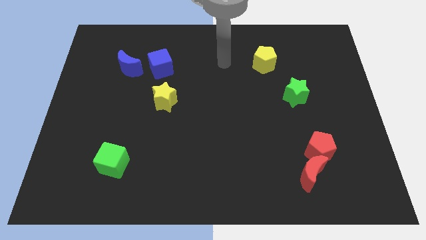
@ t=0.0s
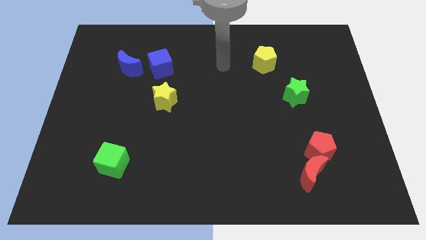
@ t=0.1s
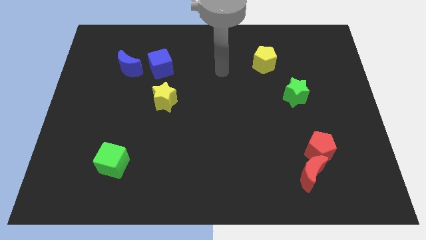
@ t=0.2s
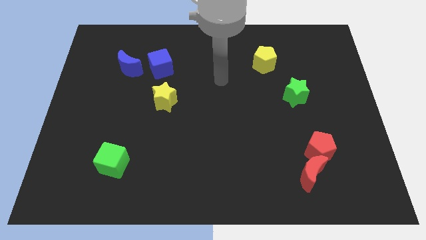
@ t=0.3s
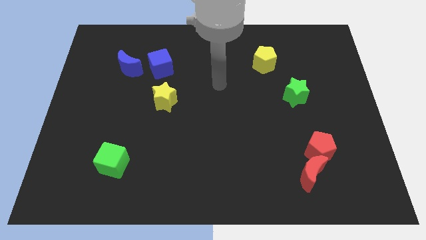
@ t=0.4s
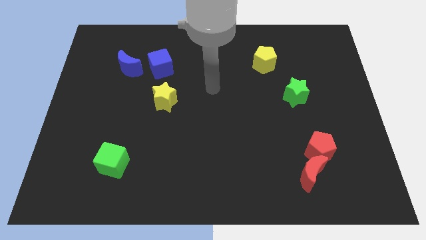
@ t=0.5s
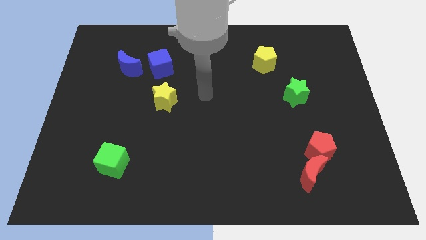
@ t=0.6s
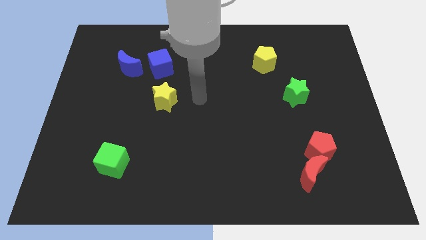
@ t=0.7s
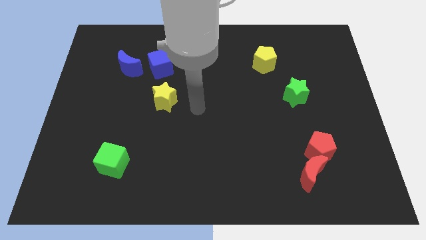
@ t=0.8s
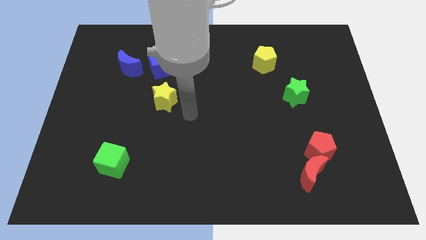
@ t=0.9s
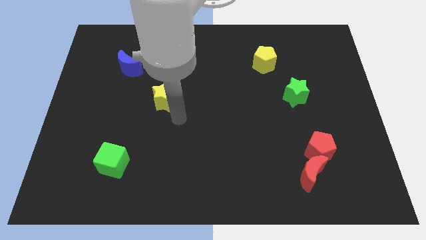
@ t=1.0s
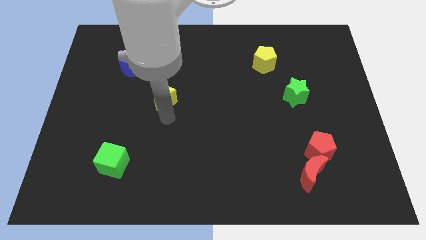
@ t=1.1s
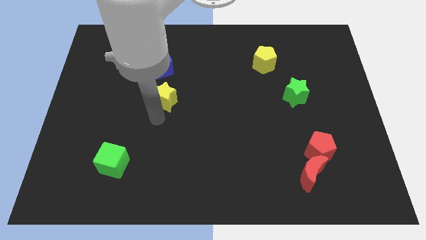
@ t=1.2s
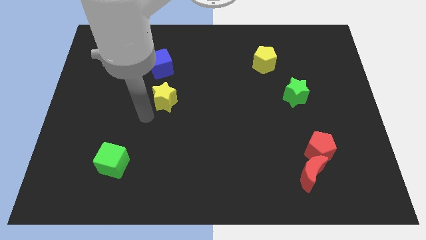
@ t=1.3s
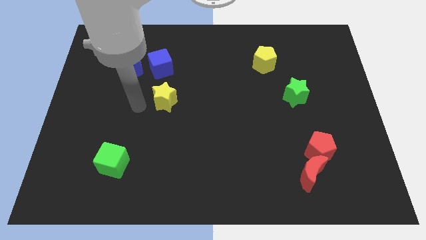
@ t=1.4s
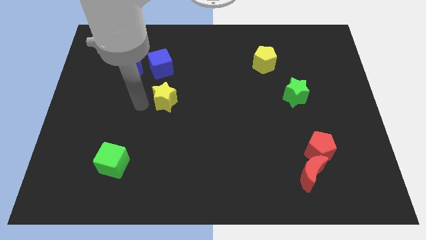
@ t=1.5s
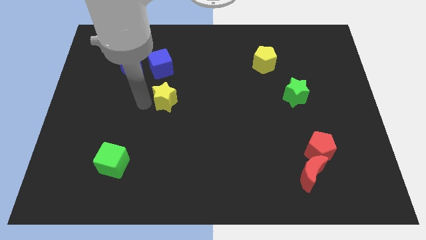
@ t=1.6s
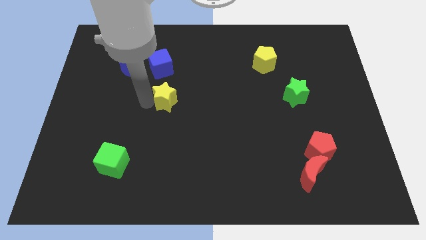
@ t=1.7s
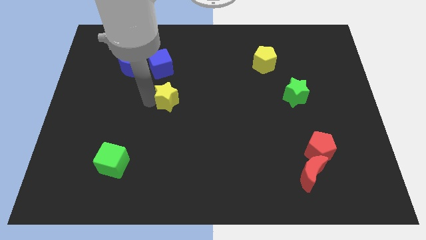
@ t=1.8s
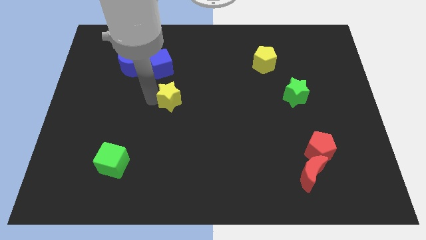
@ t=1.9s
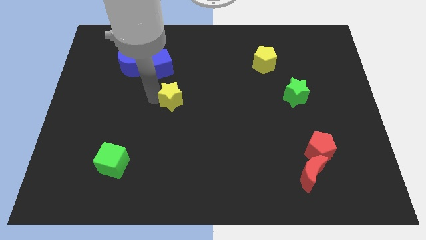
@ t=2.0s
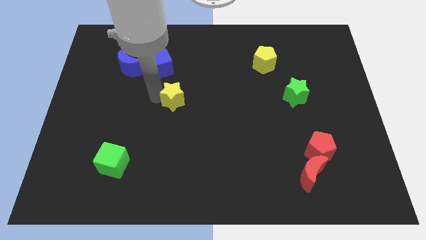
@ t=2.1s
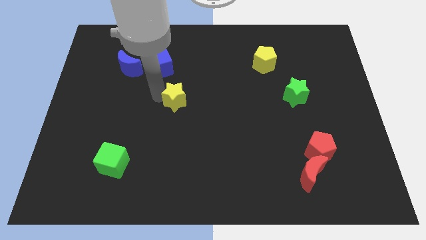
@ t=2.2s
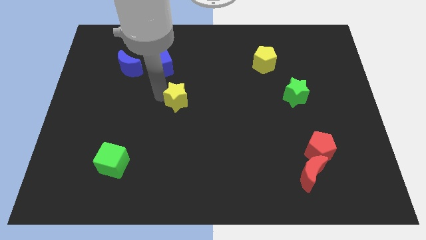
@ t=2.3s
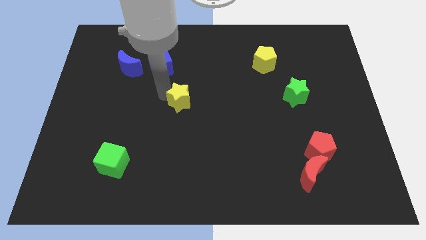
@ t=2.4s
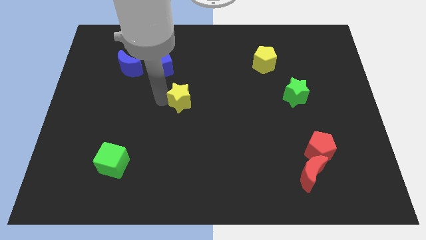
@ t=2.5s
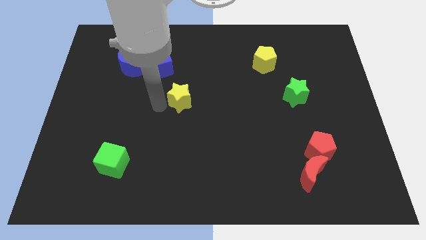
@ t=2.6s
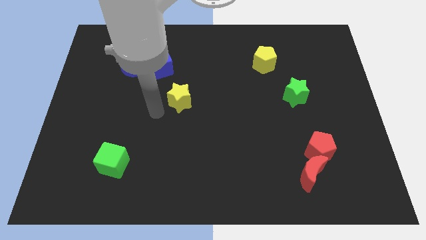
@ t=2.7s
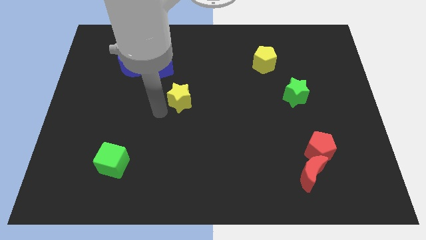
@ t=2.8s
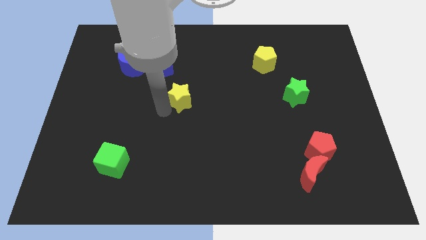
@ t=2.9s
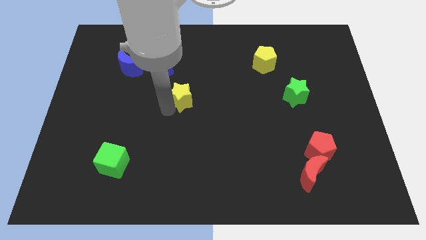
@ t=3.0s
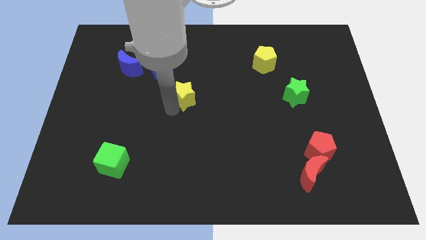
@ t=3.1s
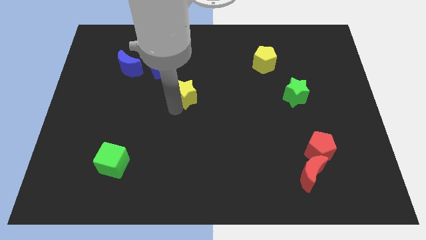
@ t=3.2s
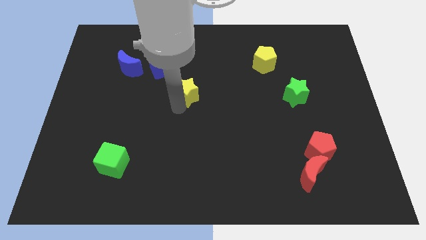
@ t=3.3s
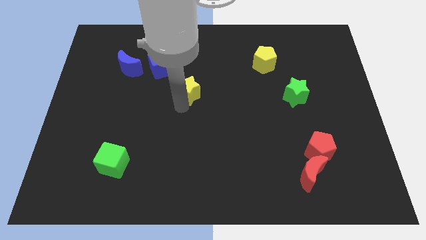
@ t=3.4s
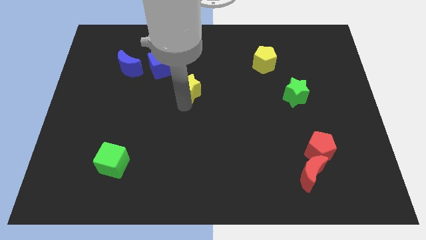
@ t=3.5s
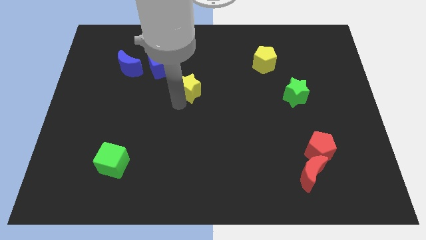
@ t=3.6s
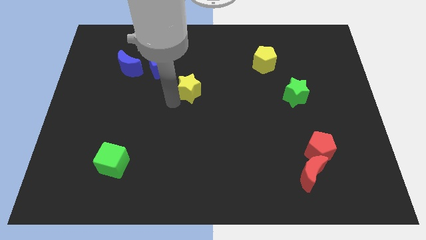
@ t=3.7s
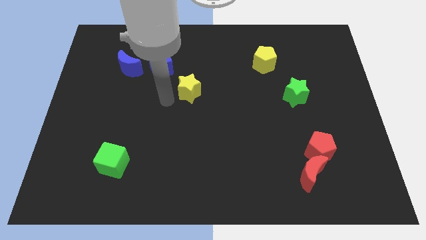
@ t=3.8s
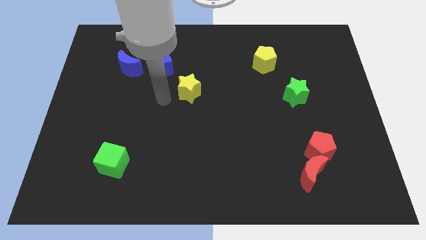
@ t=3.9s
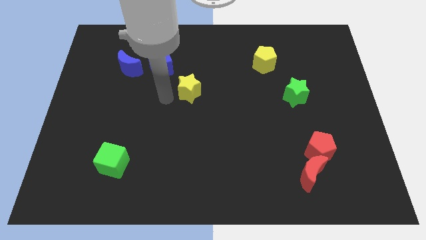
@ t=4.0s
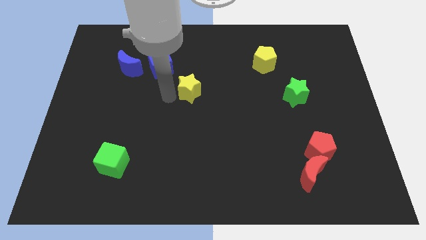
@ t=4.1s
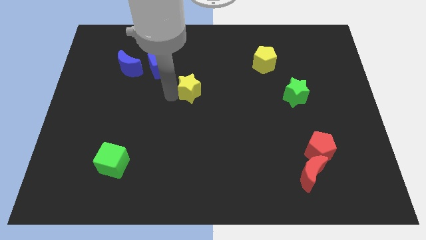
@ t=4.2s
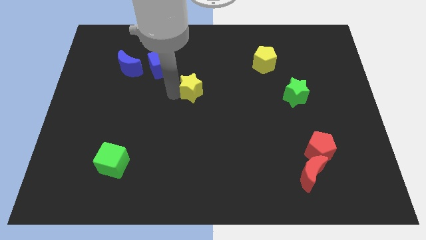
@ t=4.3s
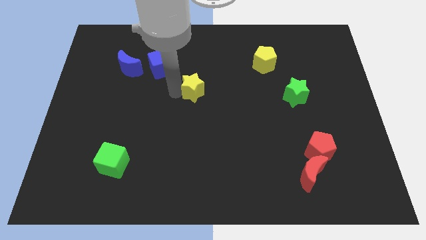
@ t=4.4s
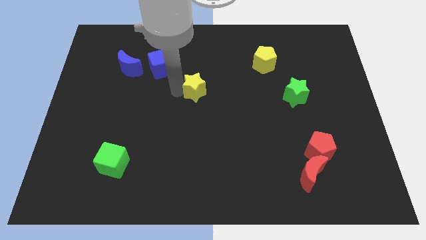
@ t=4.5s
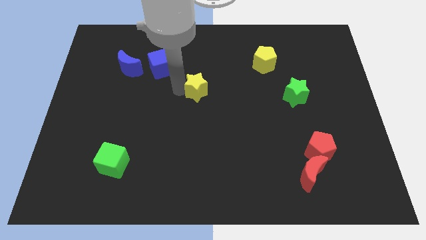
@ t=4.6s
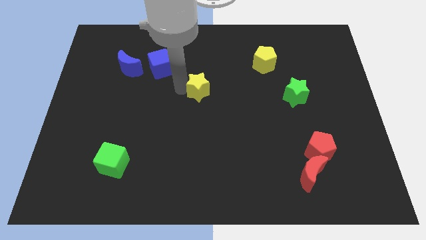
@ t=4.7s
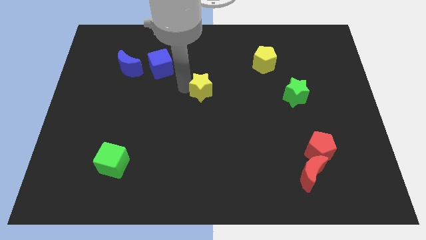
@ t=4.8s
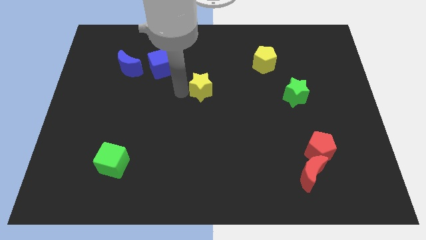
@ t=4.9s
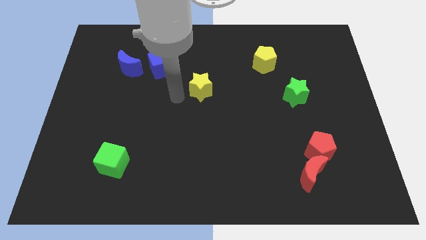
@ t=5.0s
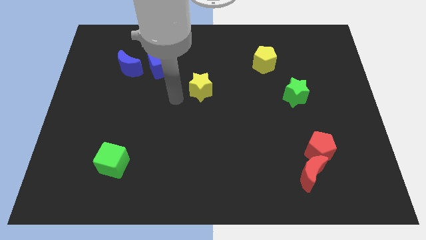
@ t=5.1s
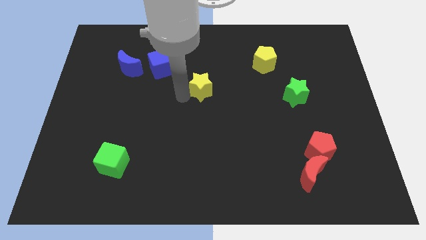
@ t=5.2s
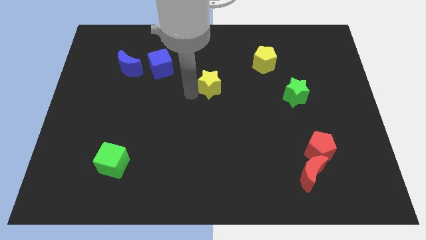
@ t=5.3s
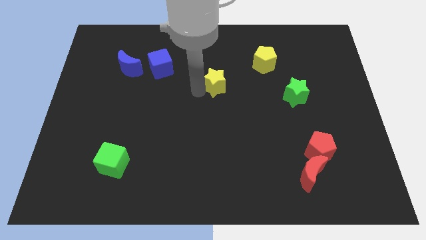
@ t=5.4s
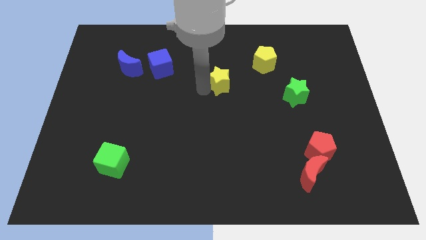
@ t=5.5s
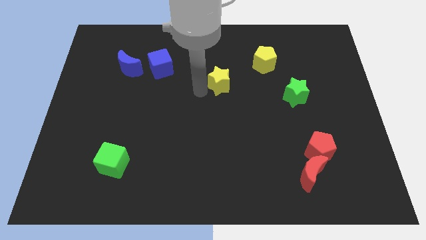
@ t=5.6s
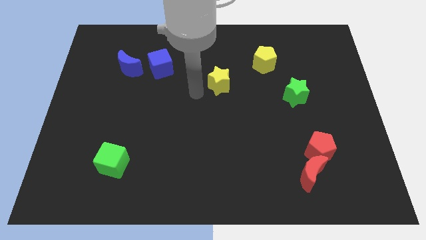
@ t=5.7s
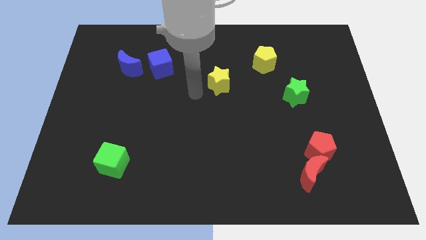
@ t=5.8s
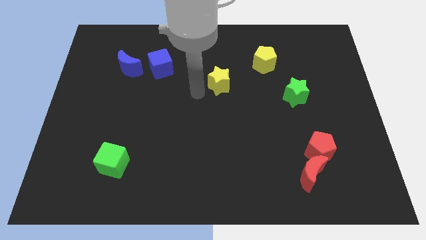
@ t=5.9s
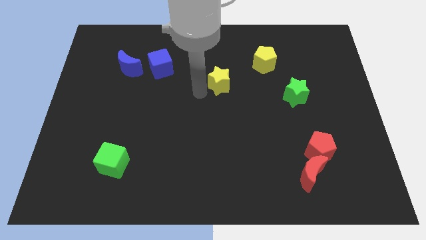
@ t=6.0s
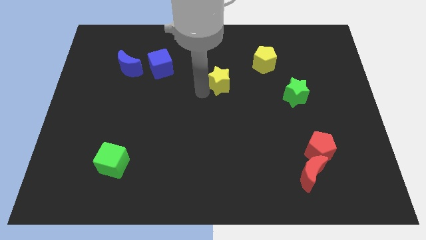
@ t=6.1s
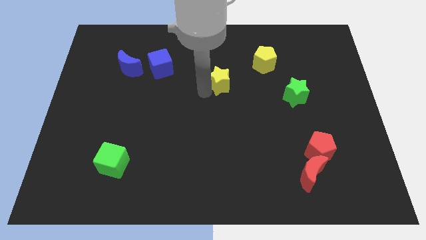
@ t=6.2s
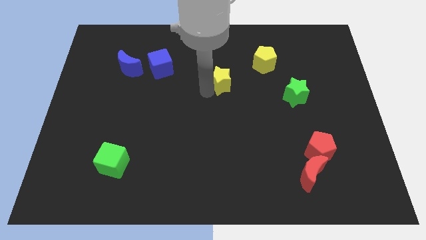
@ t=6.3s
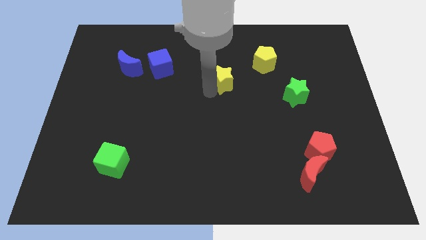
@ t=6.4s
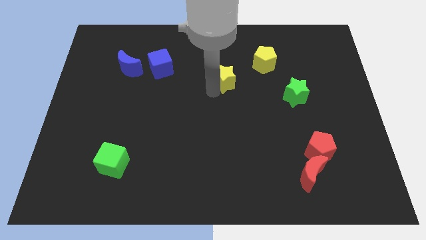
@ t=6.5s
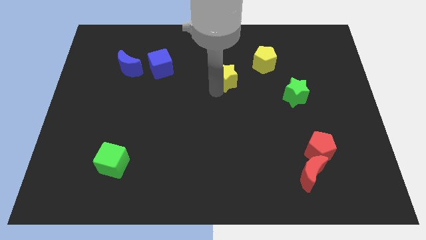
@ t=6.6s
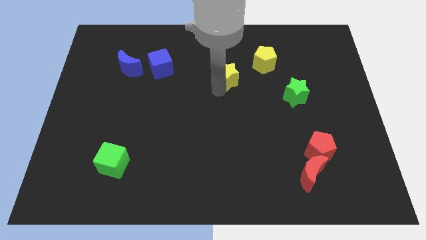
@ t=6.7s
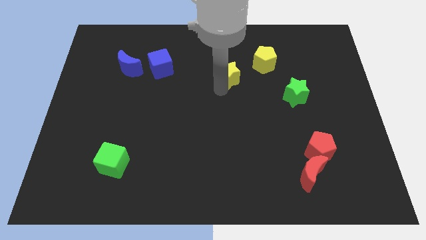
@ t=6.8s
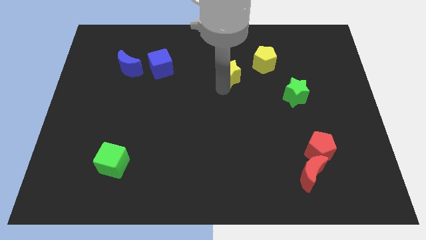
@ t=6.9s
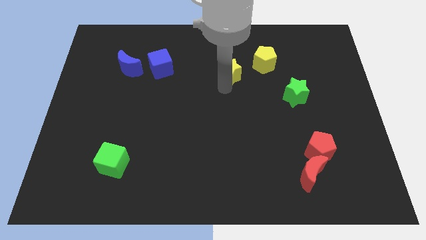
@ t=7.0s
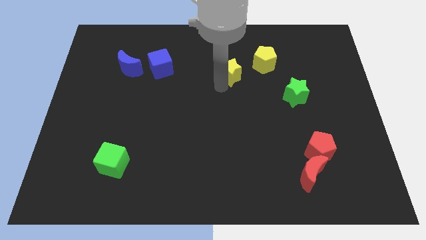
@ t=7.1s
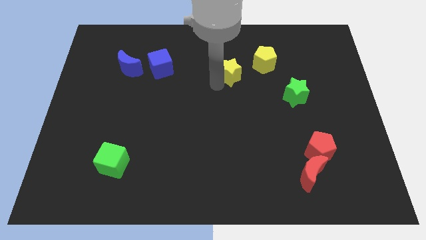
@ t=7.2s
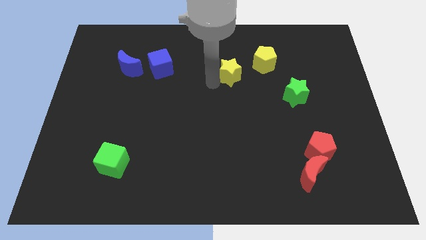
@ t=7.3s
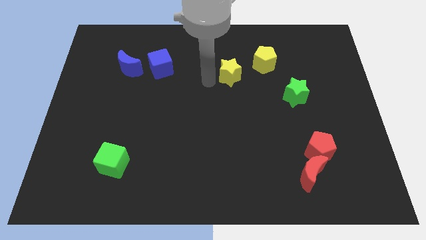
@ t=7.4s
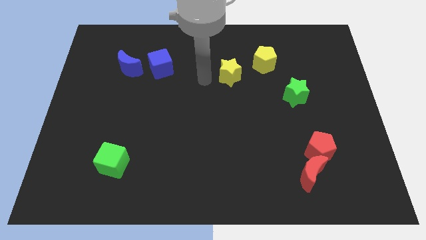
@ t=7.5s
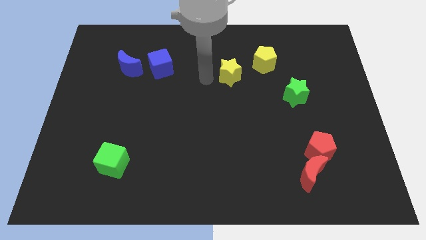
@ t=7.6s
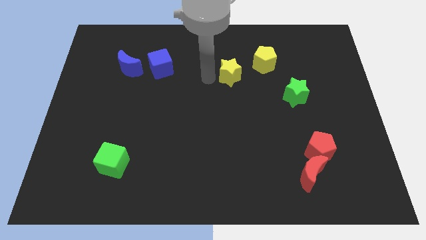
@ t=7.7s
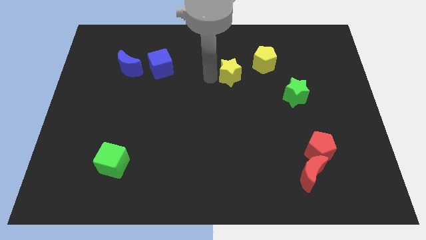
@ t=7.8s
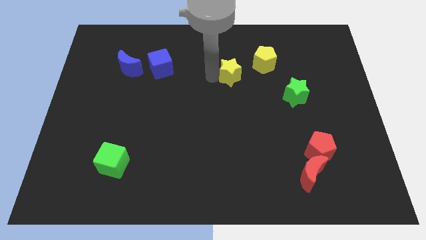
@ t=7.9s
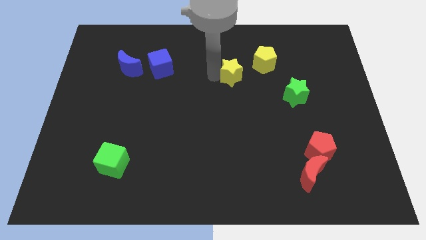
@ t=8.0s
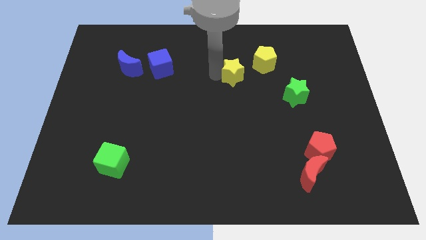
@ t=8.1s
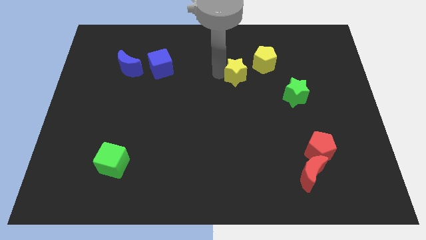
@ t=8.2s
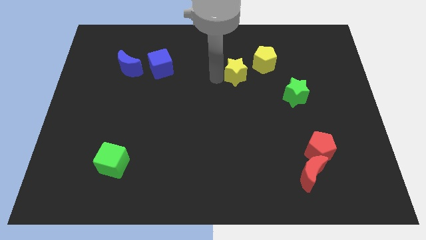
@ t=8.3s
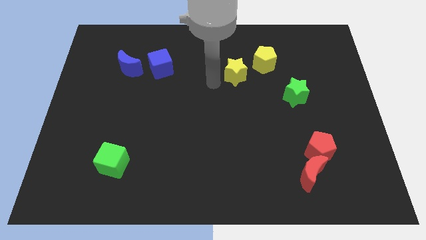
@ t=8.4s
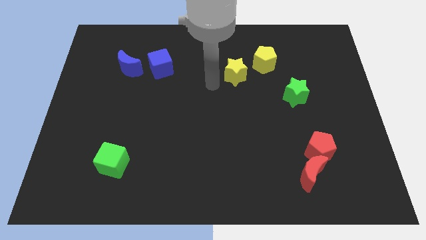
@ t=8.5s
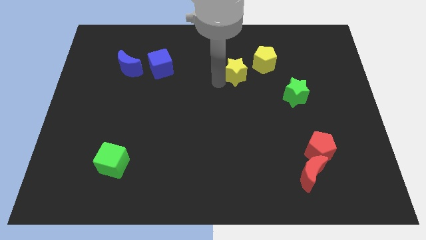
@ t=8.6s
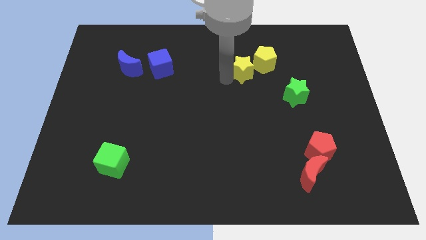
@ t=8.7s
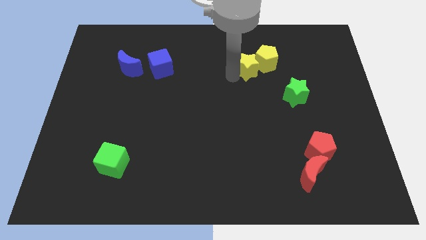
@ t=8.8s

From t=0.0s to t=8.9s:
put the yellow star towards the yellow pentagon
